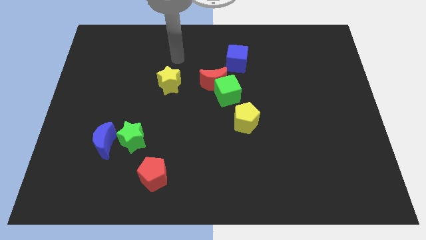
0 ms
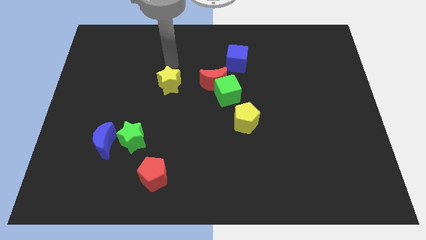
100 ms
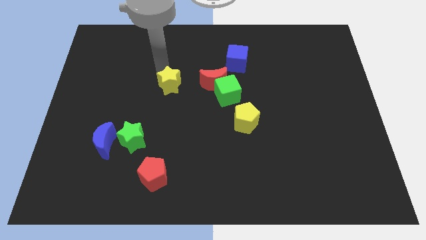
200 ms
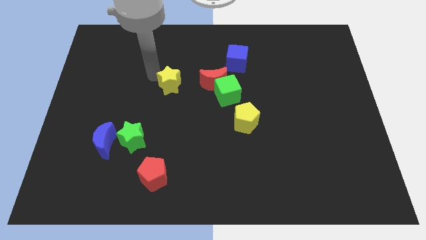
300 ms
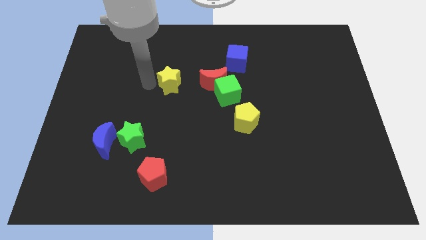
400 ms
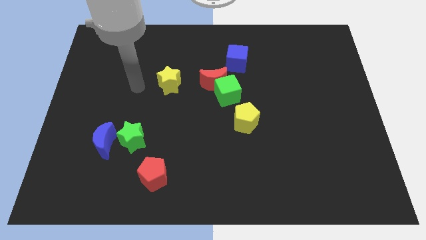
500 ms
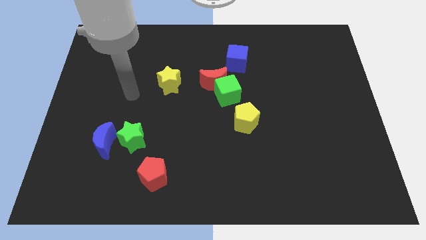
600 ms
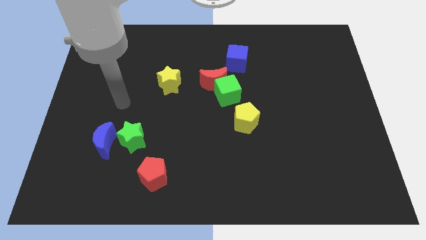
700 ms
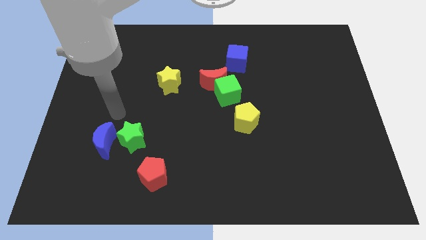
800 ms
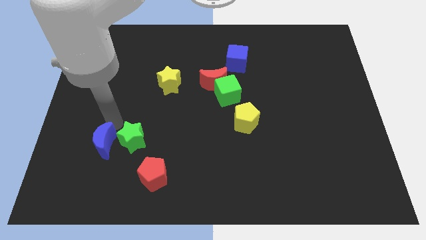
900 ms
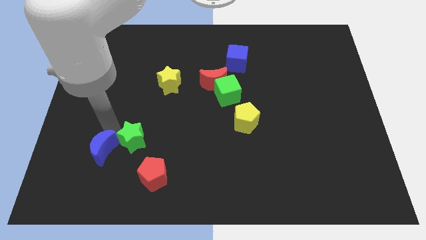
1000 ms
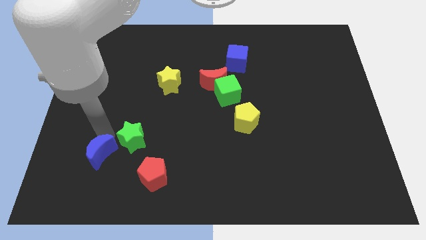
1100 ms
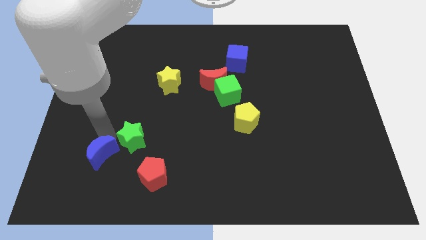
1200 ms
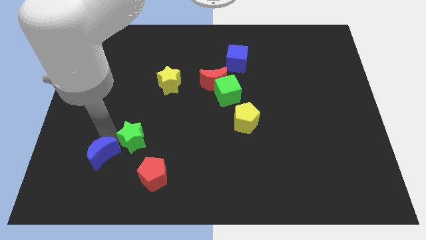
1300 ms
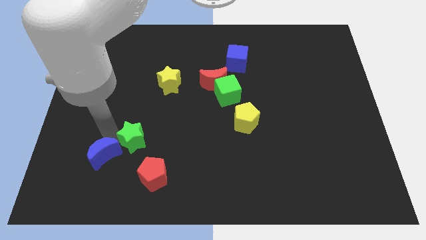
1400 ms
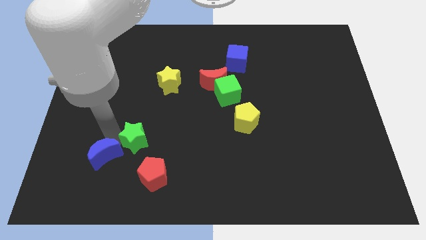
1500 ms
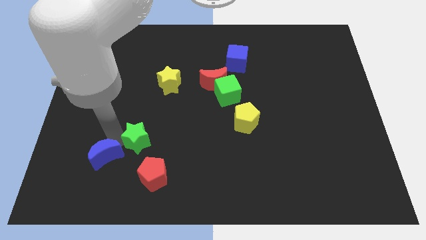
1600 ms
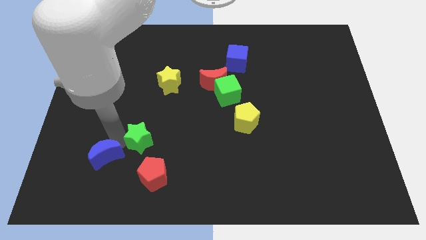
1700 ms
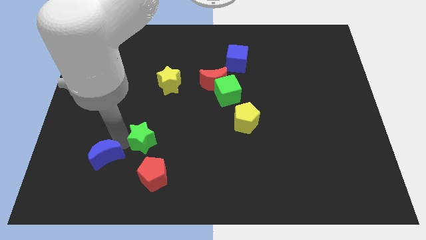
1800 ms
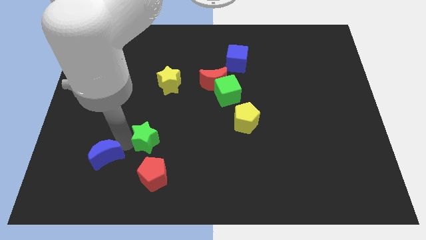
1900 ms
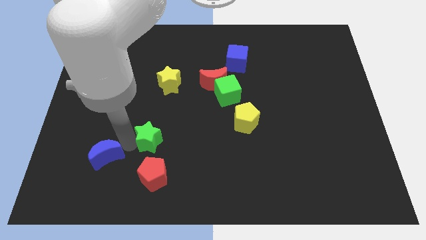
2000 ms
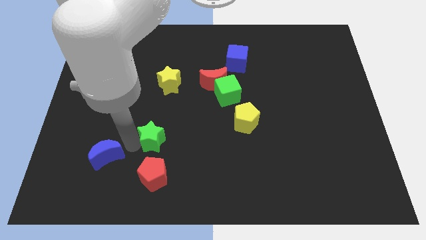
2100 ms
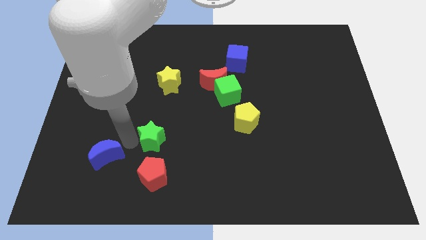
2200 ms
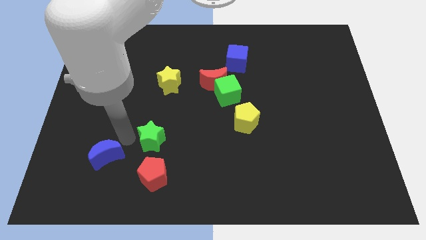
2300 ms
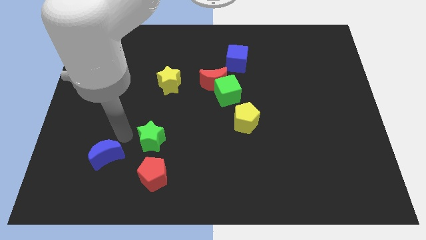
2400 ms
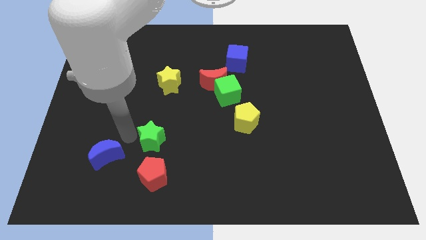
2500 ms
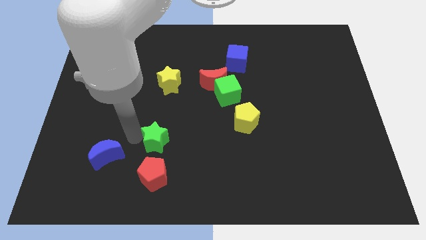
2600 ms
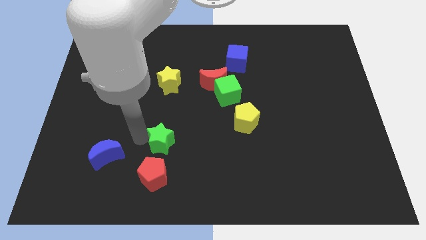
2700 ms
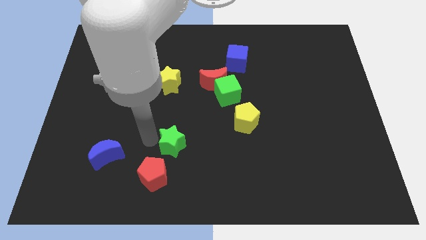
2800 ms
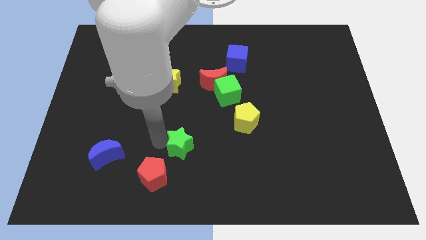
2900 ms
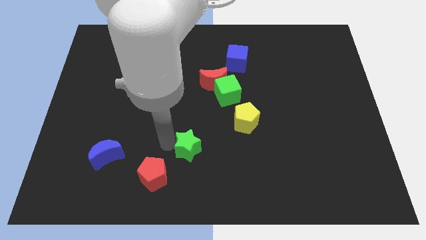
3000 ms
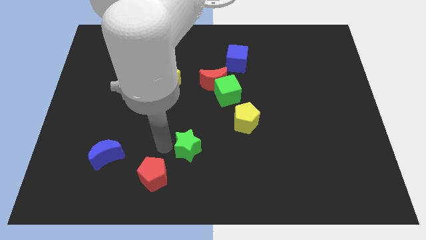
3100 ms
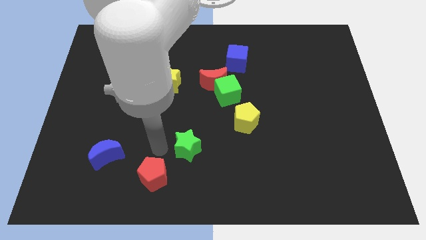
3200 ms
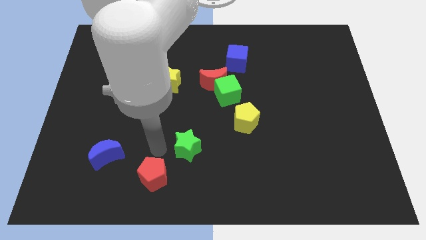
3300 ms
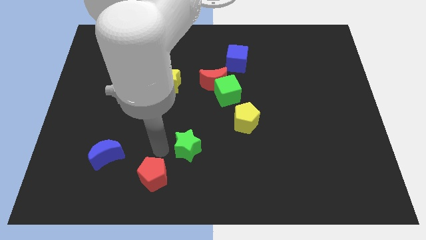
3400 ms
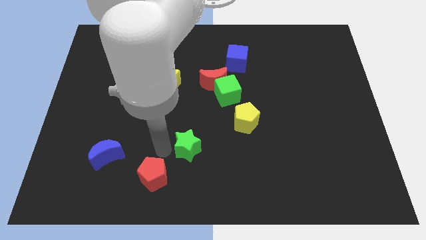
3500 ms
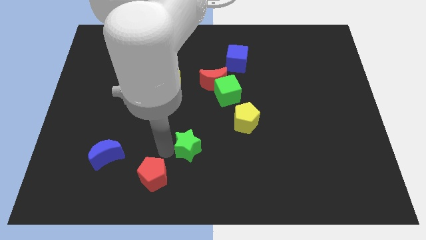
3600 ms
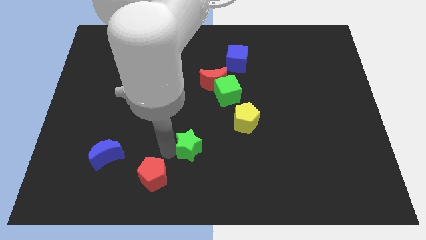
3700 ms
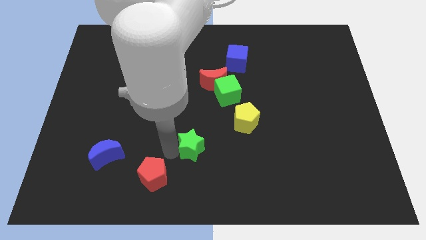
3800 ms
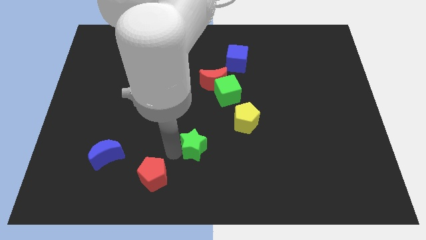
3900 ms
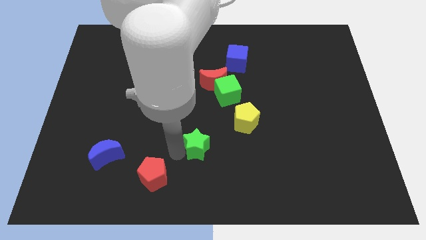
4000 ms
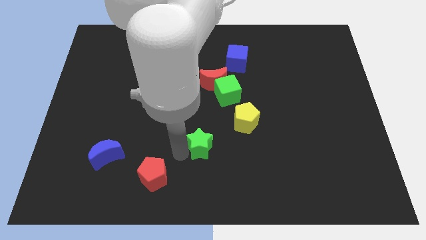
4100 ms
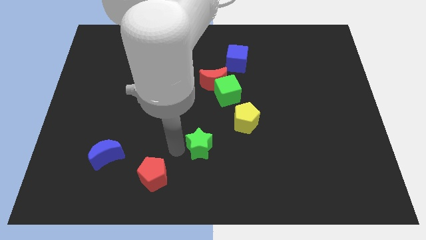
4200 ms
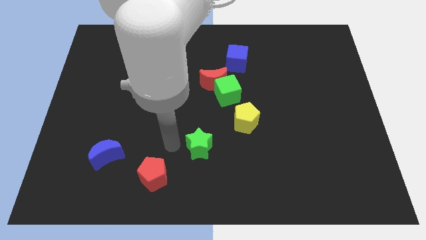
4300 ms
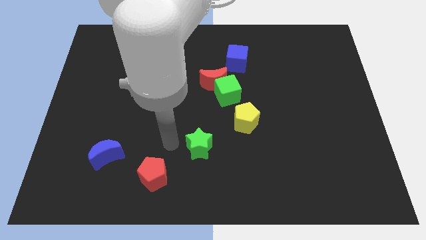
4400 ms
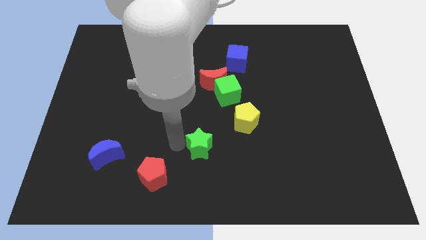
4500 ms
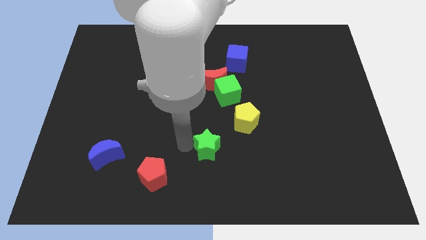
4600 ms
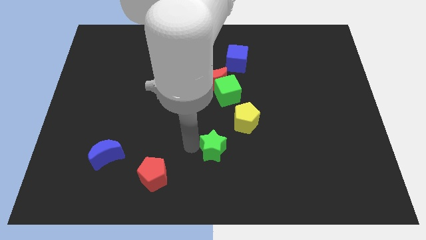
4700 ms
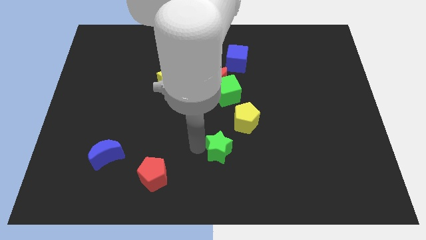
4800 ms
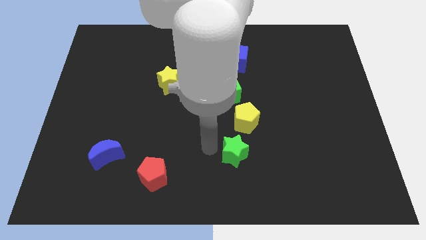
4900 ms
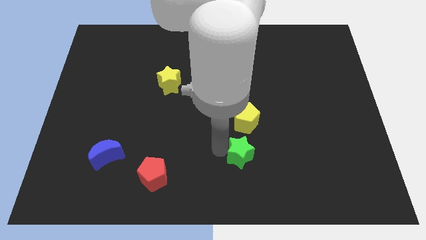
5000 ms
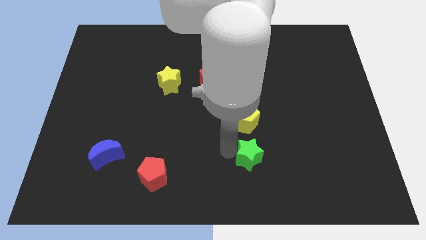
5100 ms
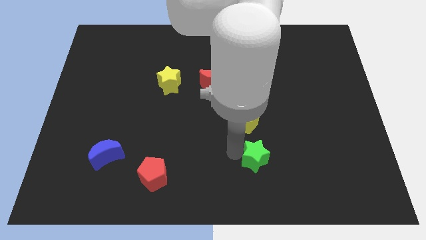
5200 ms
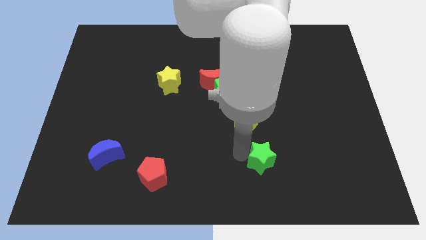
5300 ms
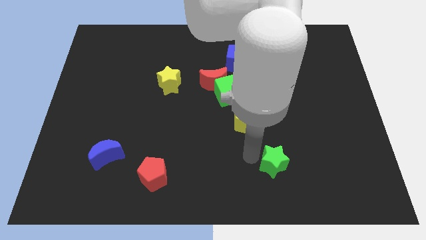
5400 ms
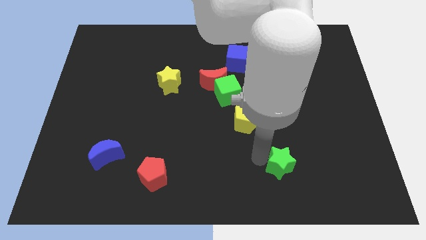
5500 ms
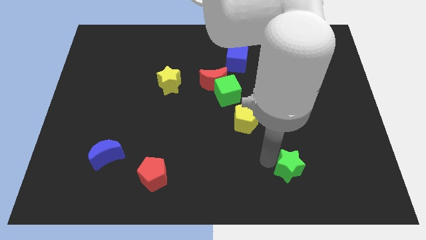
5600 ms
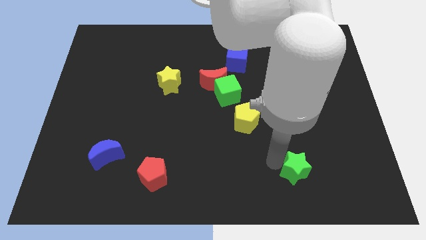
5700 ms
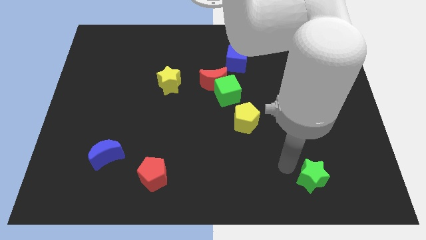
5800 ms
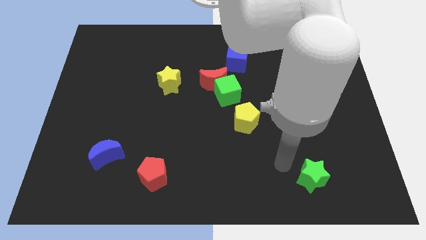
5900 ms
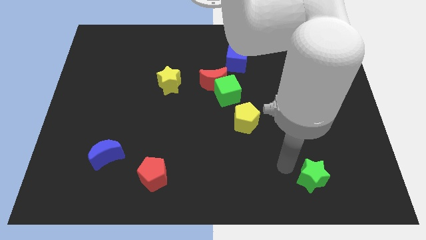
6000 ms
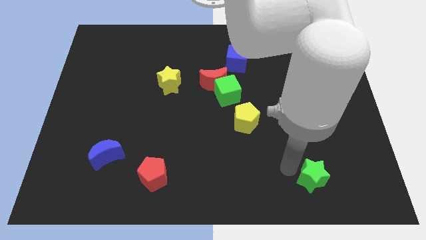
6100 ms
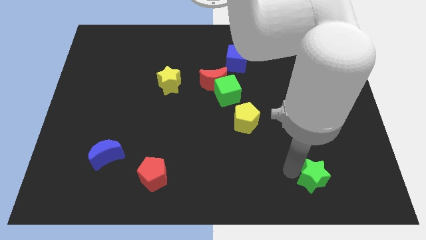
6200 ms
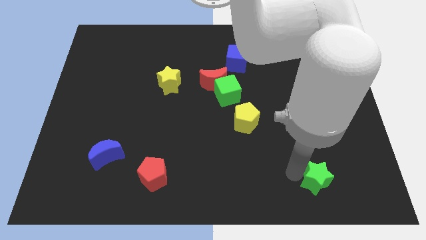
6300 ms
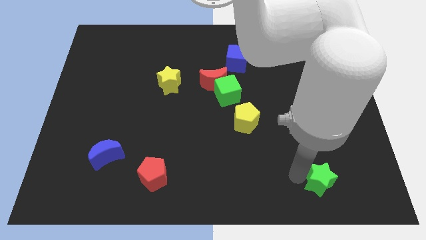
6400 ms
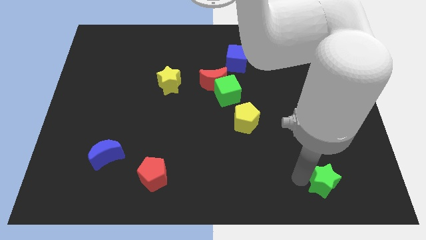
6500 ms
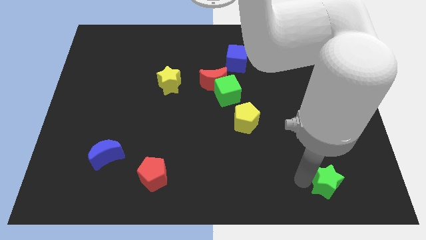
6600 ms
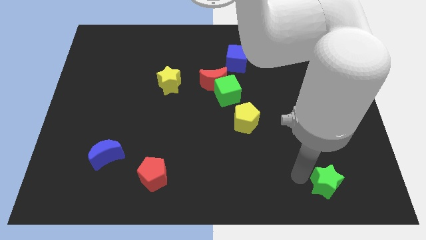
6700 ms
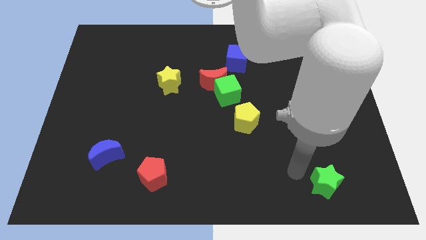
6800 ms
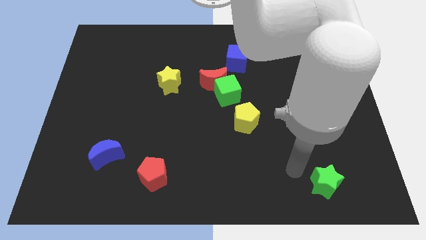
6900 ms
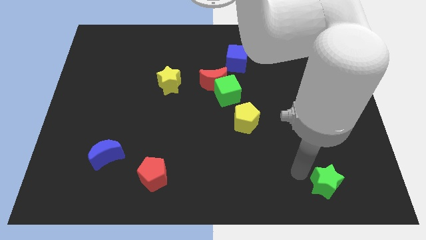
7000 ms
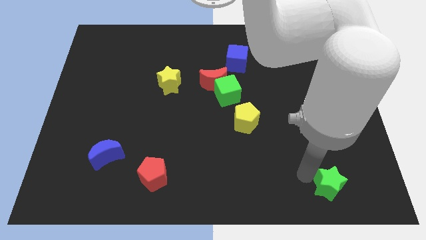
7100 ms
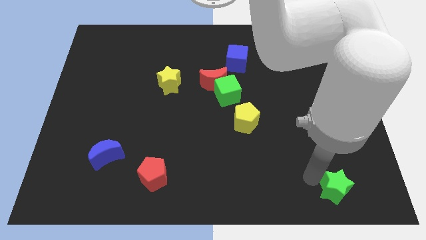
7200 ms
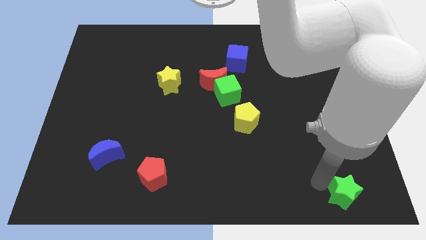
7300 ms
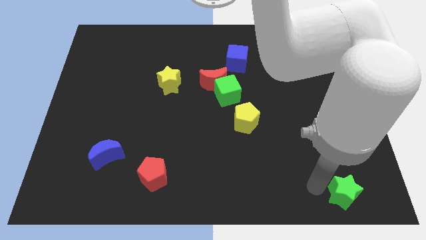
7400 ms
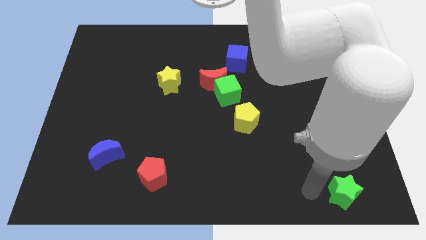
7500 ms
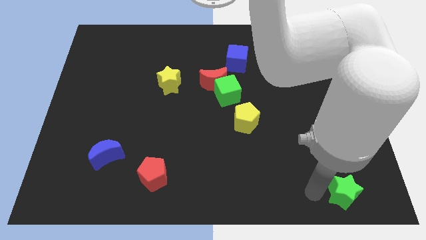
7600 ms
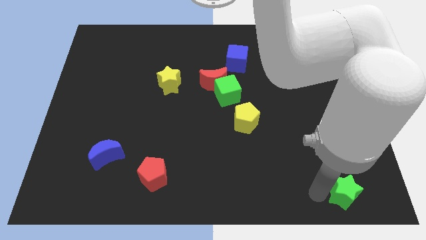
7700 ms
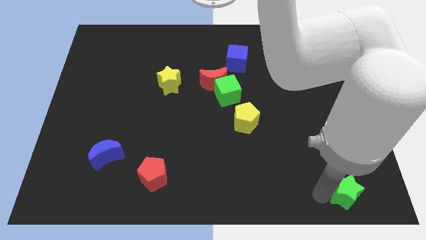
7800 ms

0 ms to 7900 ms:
put the green star to the bottom right
